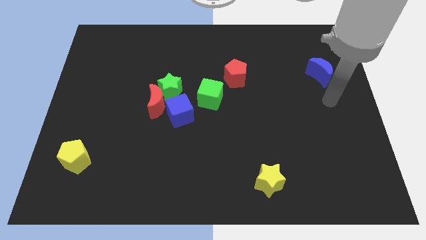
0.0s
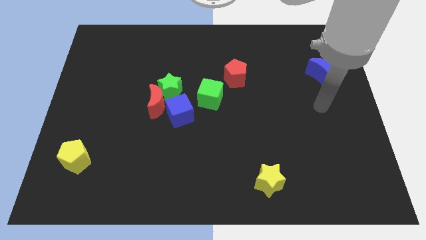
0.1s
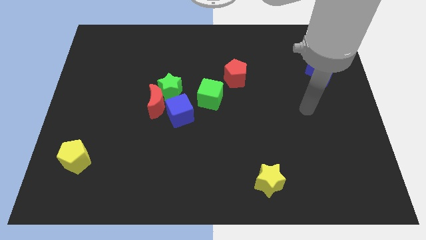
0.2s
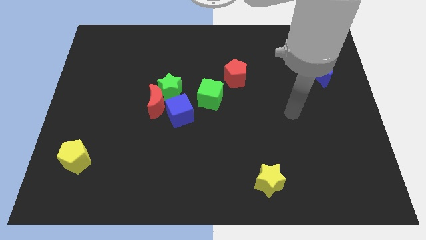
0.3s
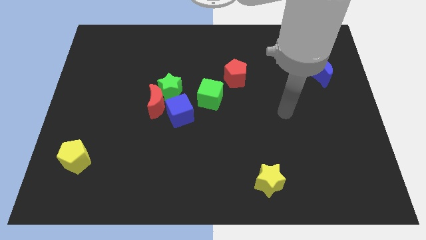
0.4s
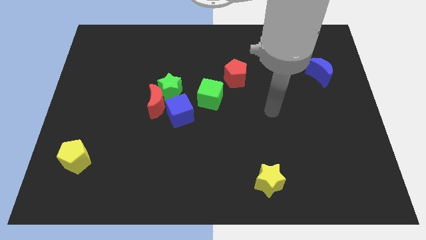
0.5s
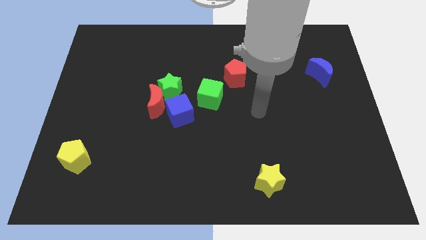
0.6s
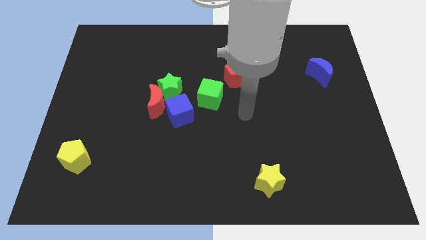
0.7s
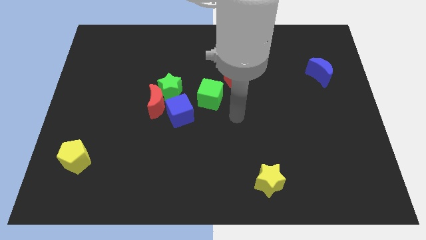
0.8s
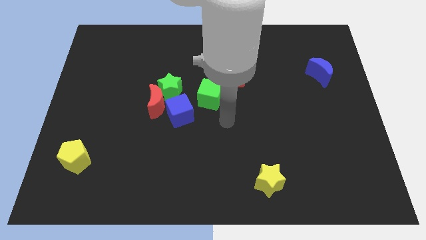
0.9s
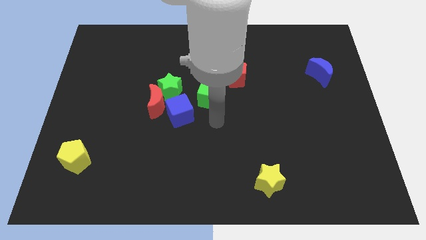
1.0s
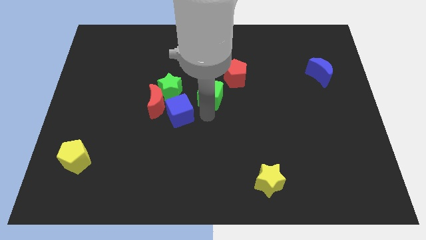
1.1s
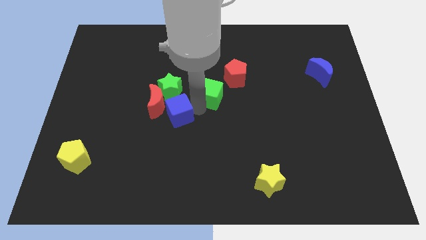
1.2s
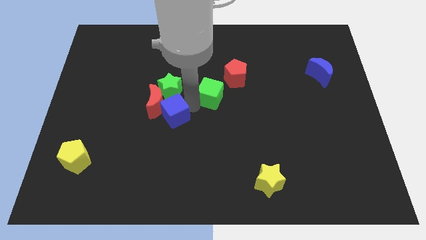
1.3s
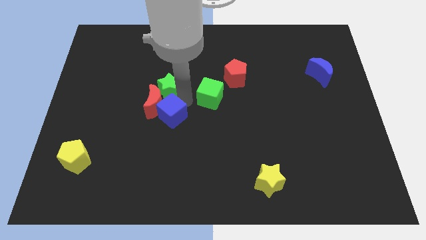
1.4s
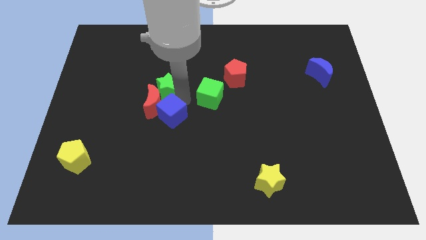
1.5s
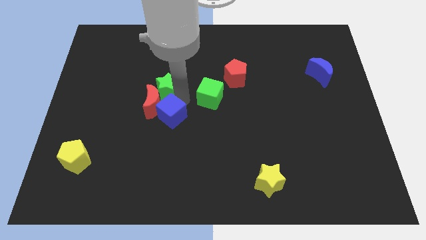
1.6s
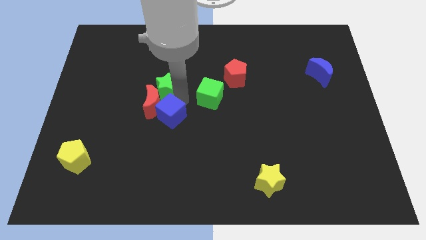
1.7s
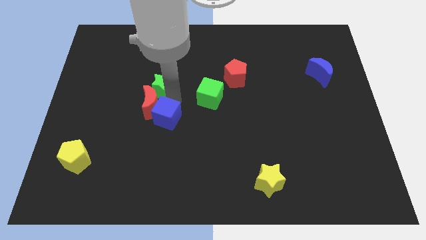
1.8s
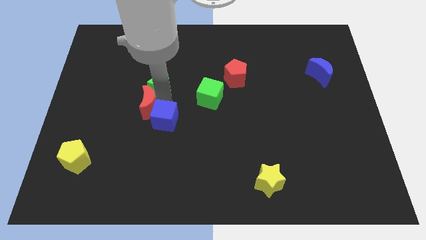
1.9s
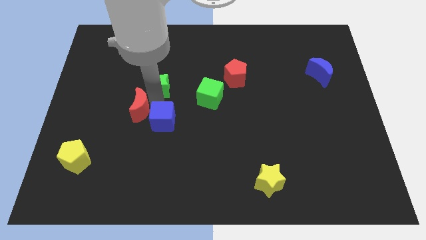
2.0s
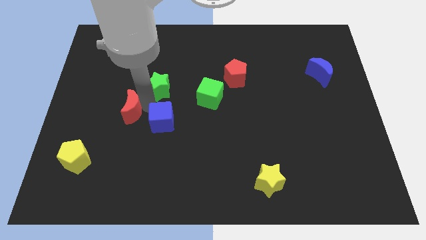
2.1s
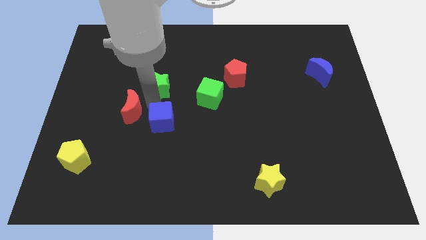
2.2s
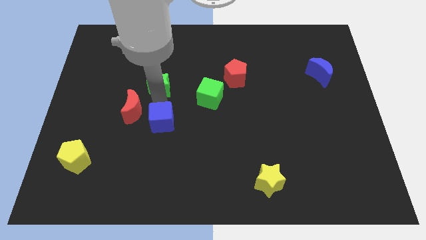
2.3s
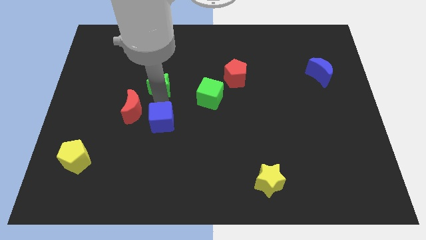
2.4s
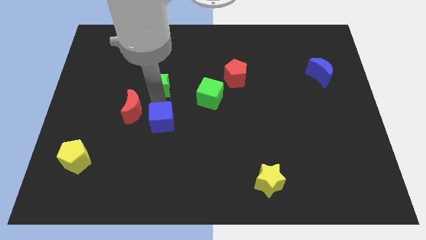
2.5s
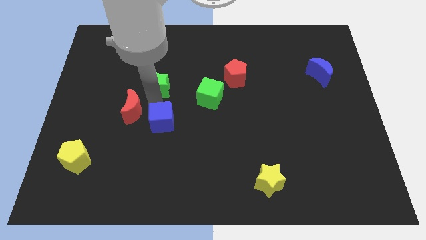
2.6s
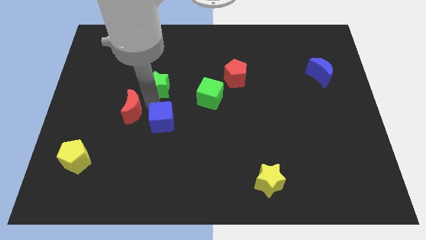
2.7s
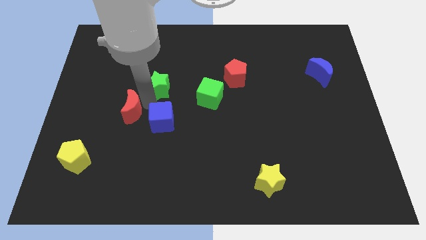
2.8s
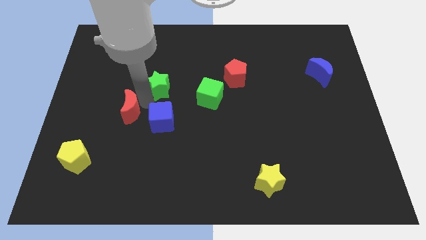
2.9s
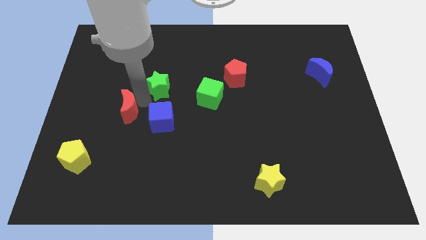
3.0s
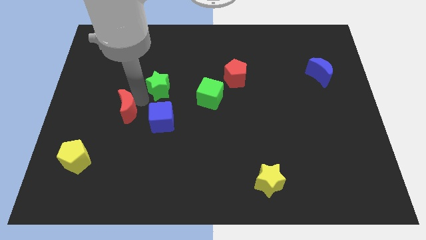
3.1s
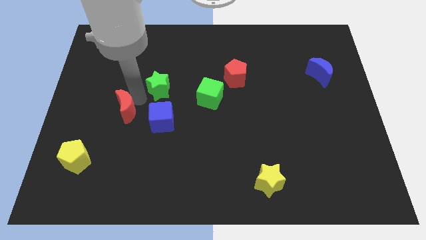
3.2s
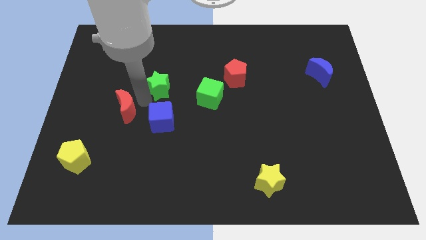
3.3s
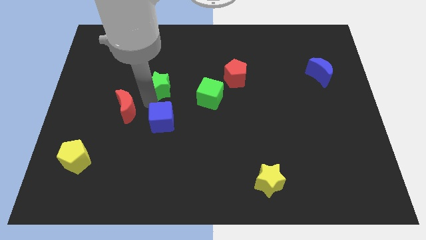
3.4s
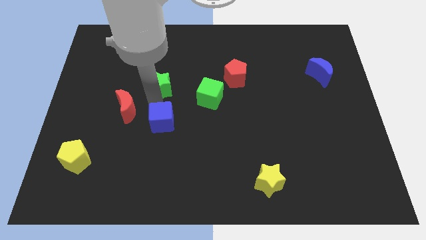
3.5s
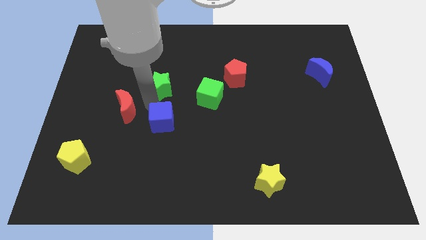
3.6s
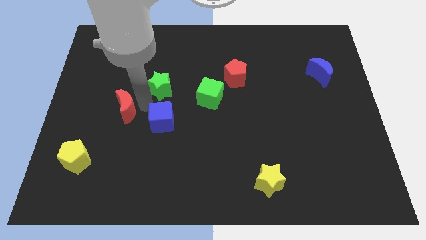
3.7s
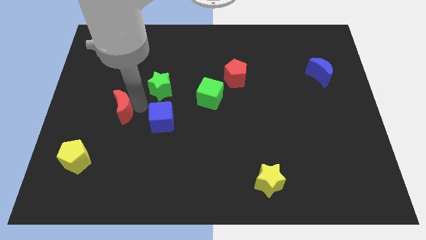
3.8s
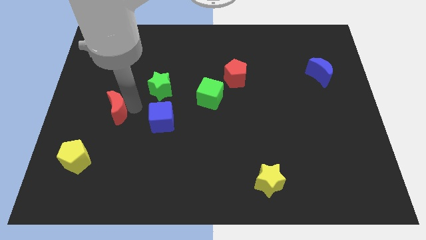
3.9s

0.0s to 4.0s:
move the red moon away from the green star and blue cube

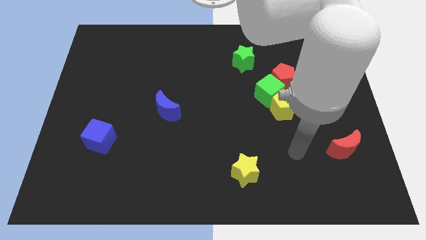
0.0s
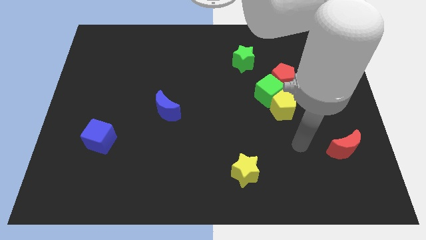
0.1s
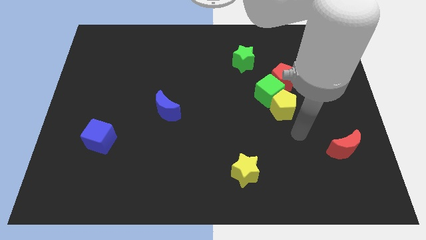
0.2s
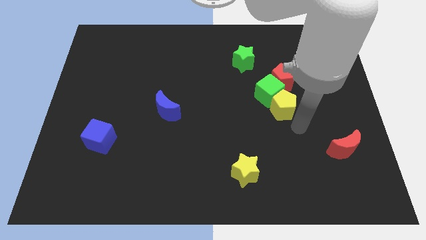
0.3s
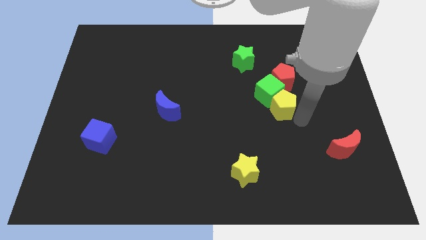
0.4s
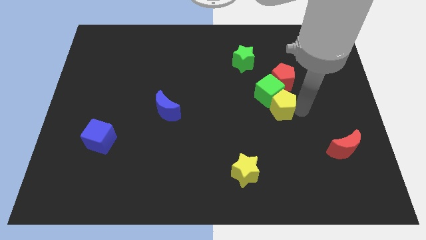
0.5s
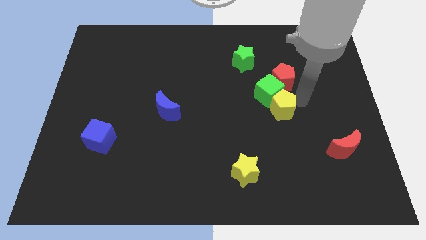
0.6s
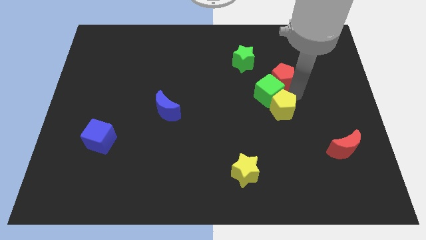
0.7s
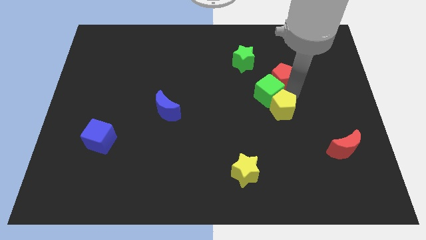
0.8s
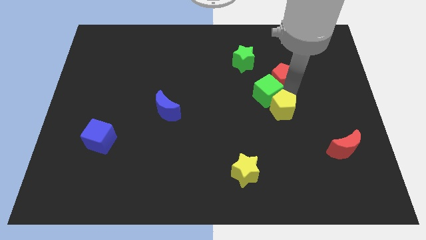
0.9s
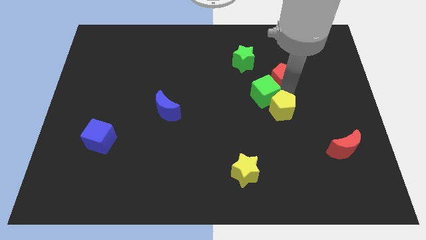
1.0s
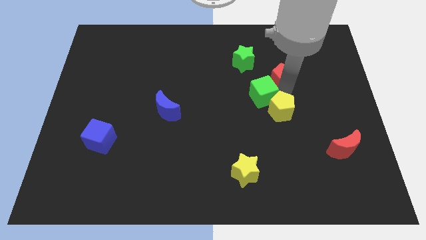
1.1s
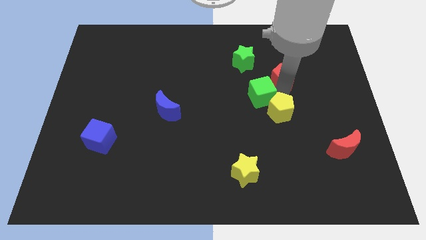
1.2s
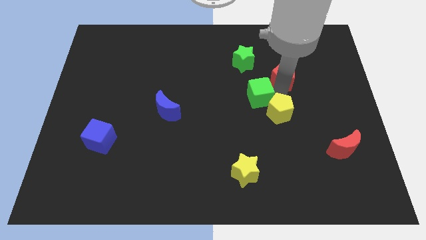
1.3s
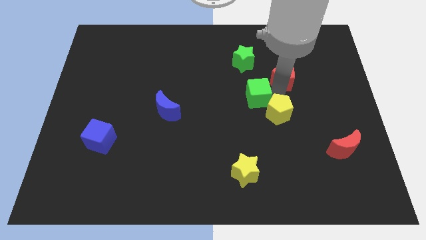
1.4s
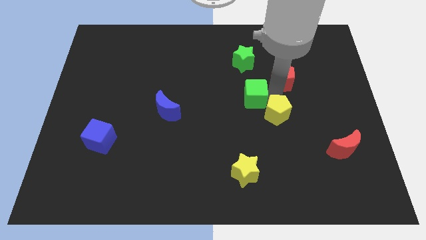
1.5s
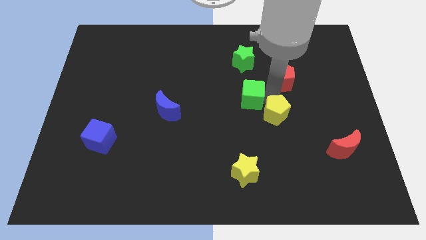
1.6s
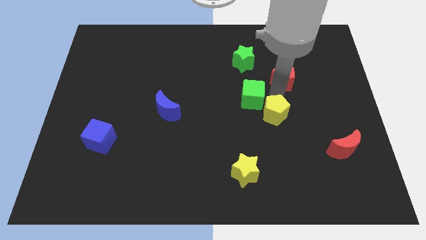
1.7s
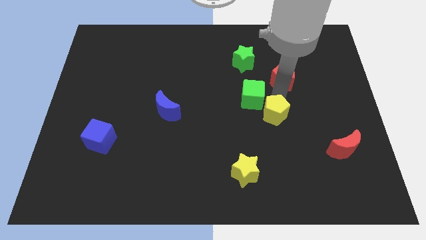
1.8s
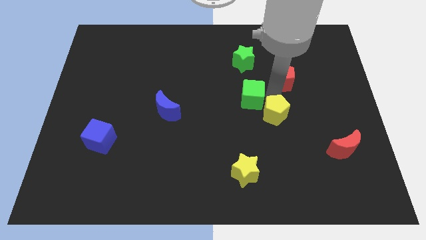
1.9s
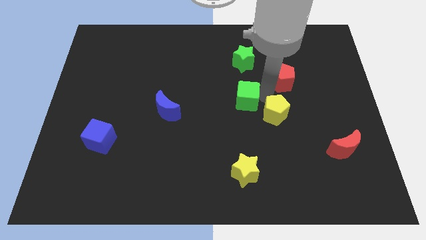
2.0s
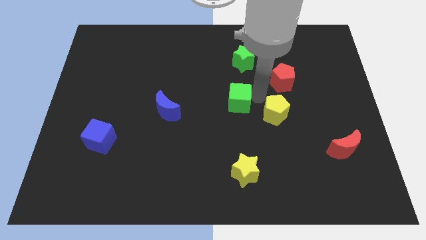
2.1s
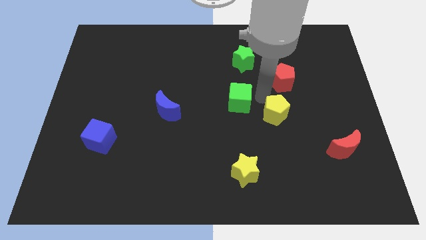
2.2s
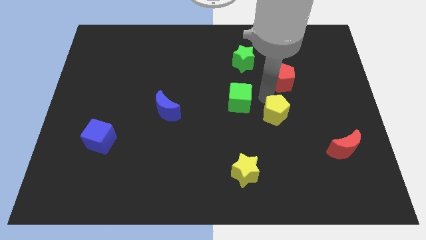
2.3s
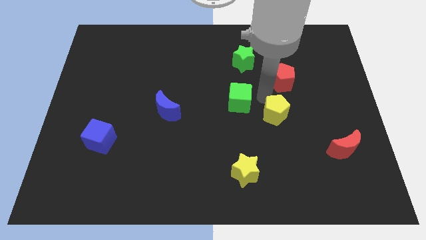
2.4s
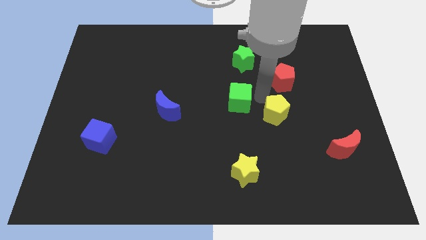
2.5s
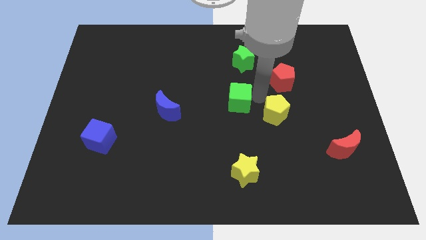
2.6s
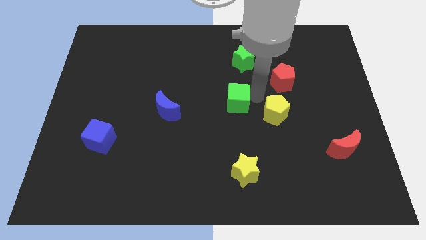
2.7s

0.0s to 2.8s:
pull the green cube apart from the yellow pentagon and red pentagon

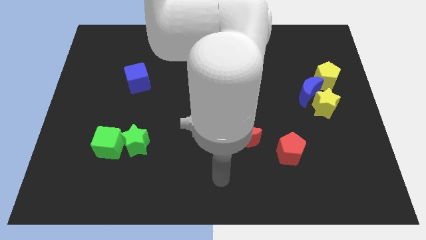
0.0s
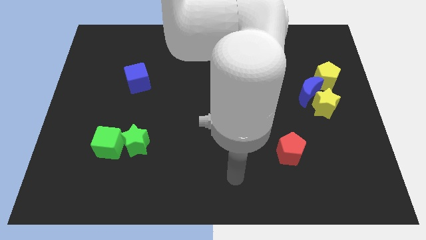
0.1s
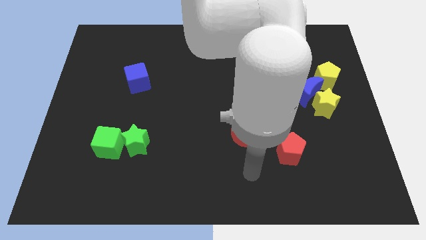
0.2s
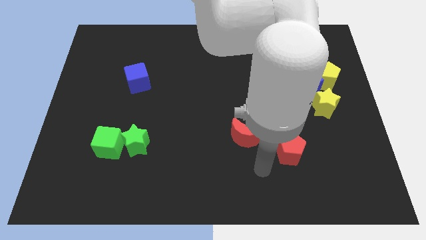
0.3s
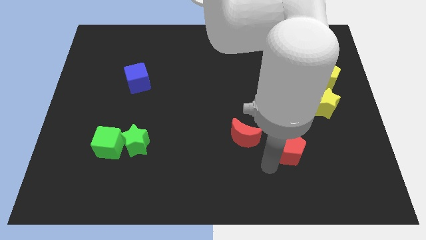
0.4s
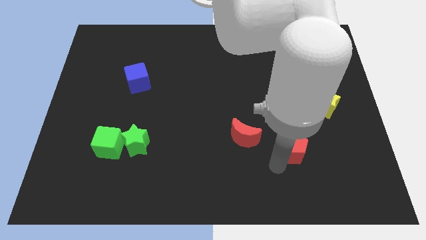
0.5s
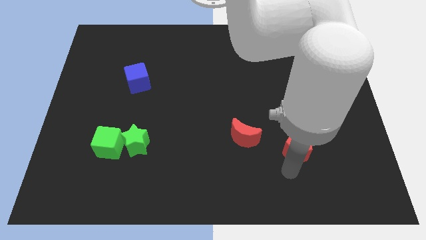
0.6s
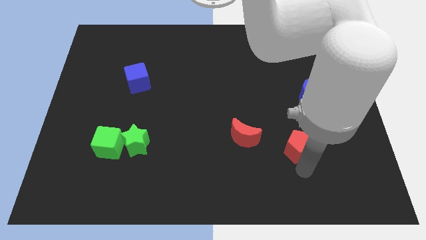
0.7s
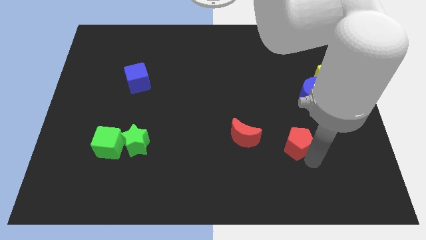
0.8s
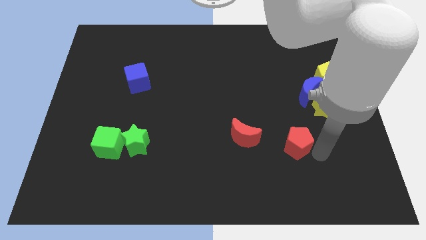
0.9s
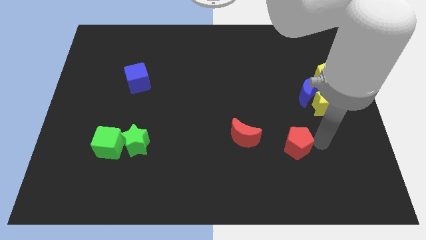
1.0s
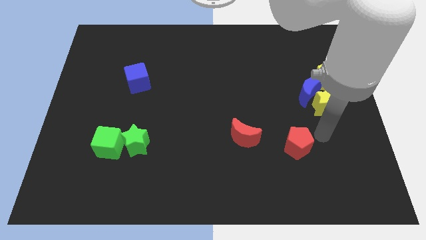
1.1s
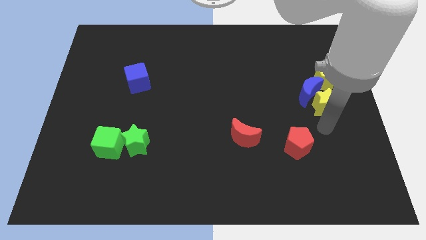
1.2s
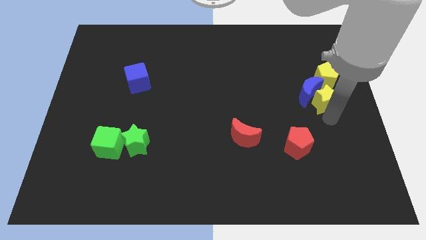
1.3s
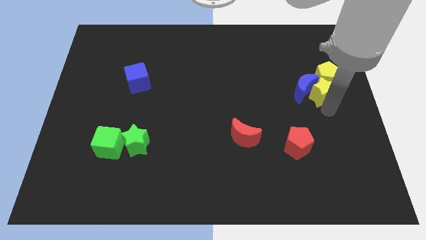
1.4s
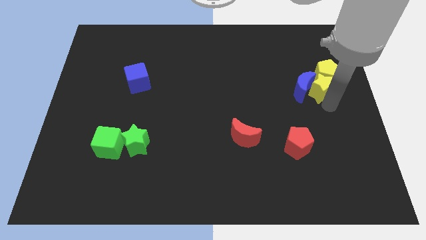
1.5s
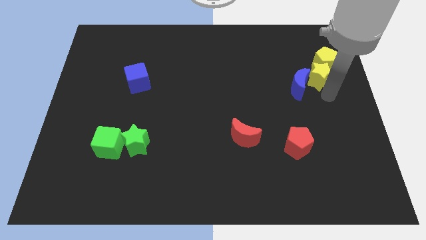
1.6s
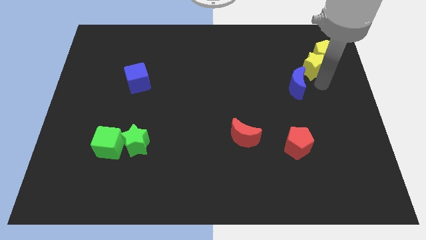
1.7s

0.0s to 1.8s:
move the blue moon away from the yellow star and yellow pentagon

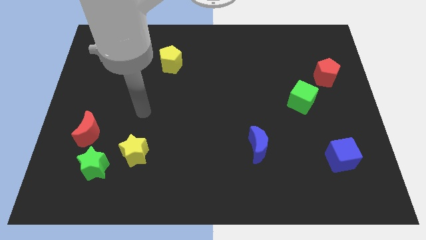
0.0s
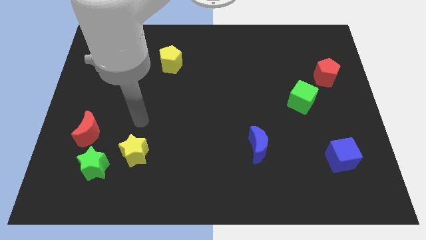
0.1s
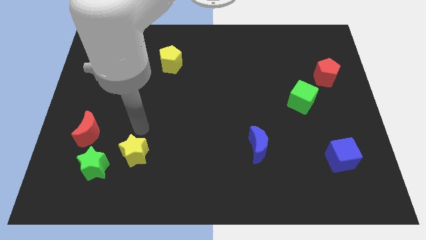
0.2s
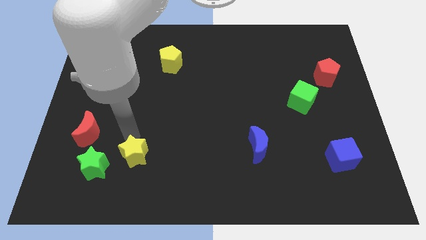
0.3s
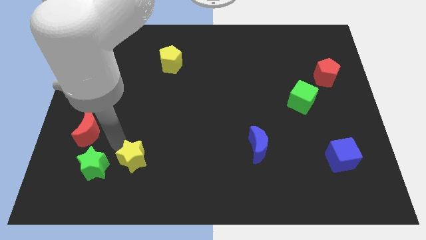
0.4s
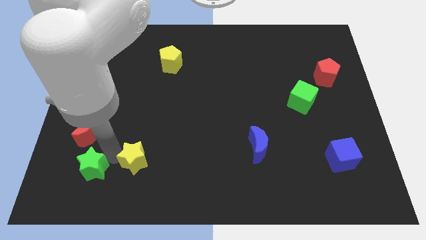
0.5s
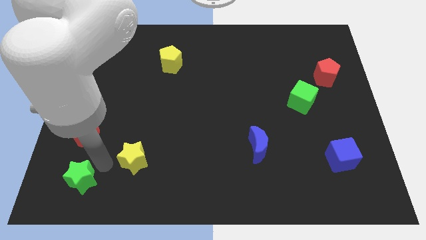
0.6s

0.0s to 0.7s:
separate the yellow star from the green star

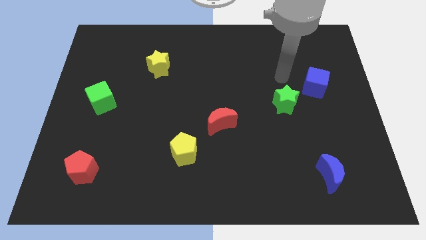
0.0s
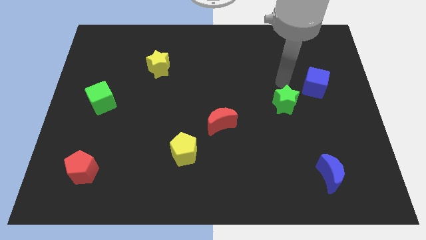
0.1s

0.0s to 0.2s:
separate the blue cube from the green star
